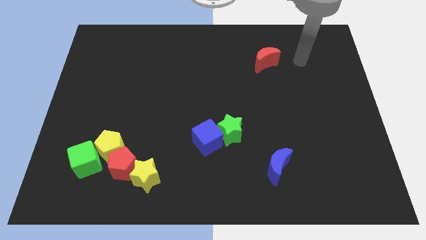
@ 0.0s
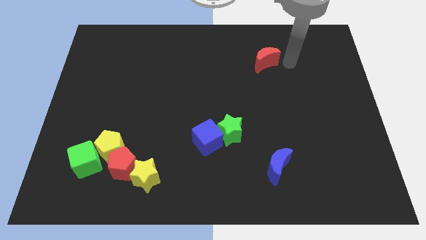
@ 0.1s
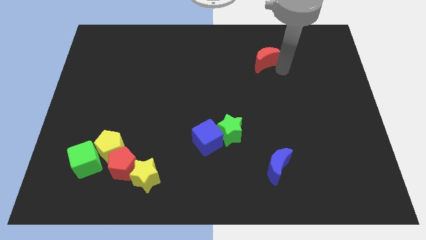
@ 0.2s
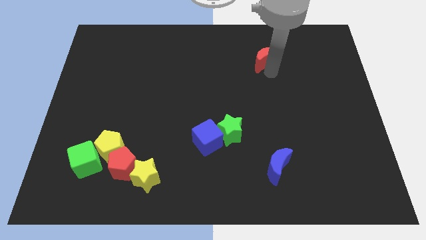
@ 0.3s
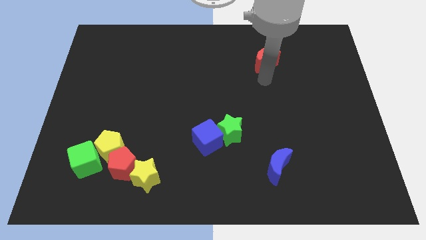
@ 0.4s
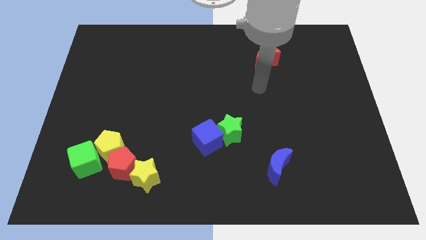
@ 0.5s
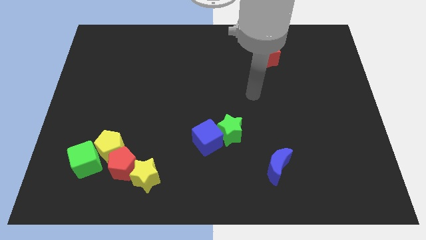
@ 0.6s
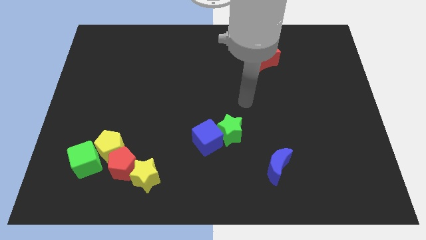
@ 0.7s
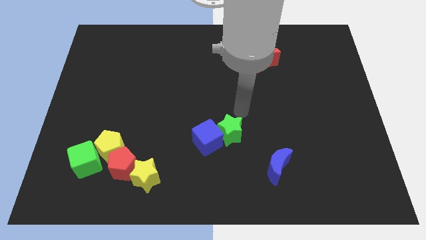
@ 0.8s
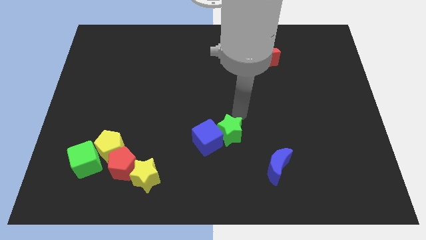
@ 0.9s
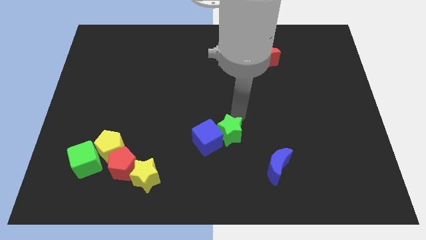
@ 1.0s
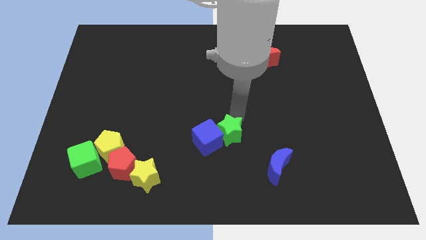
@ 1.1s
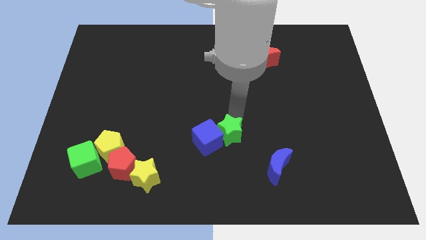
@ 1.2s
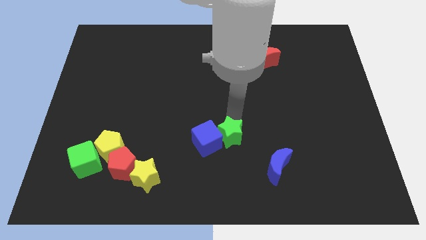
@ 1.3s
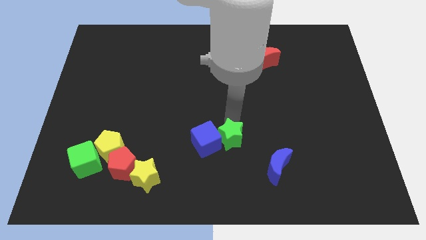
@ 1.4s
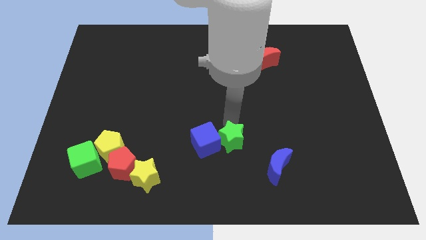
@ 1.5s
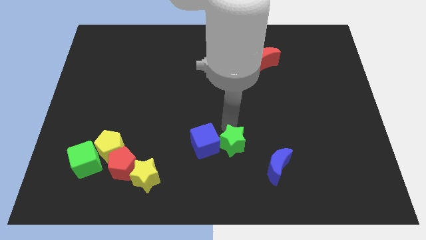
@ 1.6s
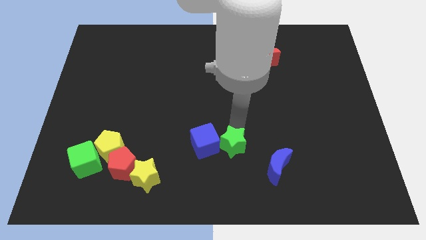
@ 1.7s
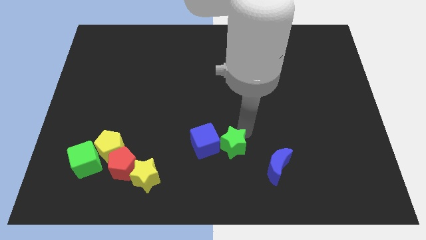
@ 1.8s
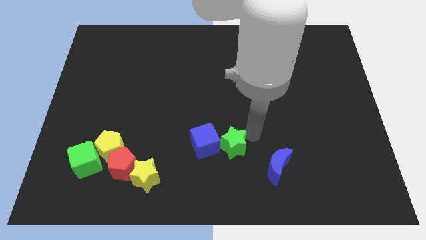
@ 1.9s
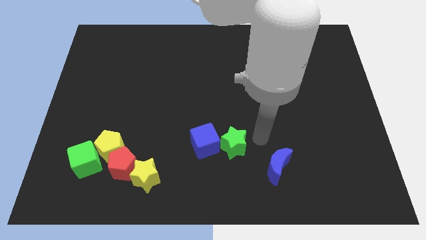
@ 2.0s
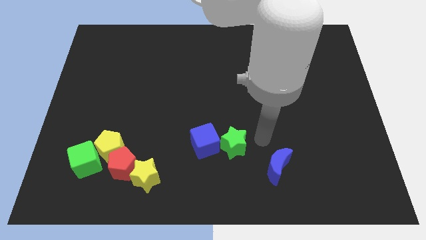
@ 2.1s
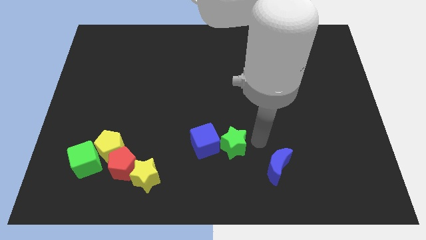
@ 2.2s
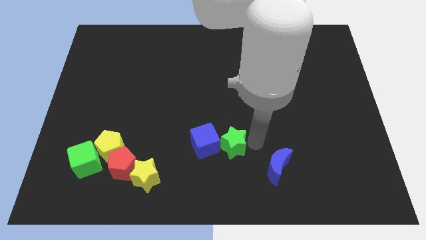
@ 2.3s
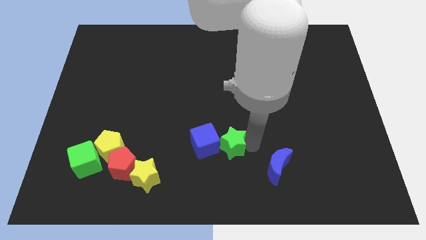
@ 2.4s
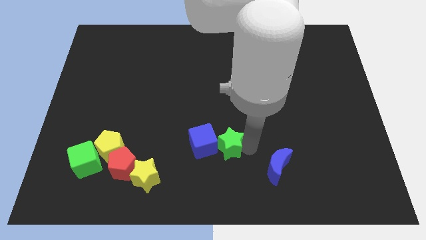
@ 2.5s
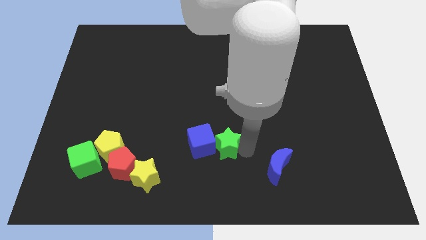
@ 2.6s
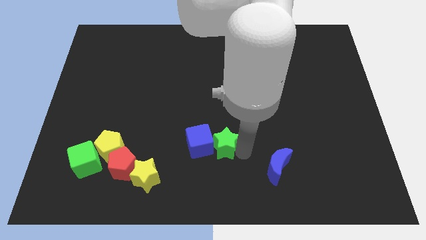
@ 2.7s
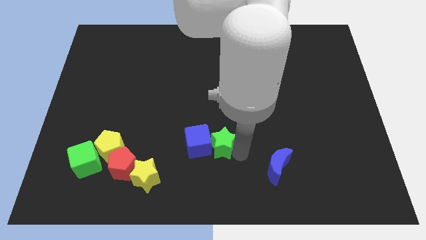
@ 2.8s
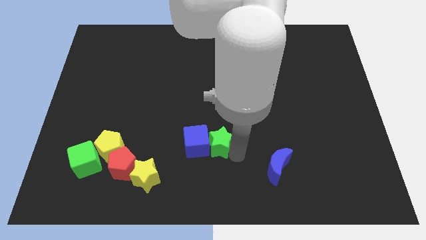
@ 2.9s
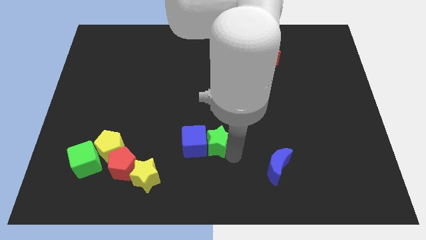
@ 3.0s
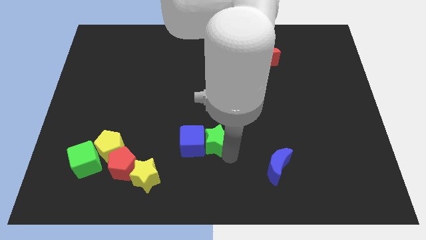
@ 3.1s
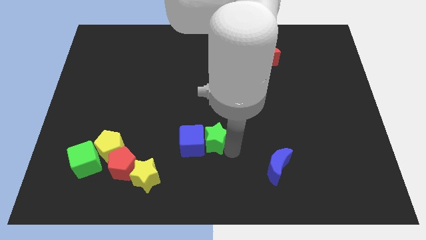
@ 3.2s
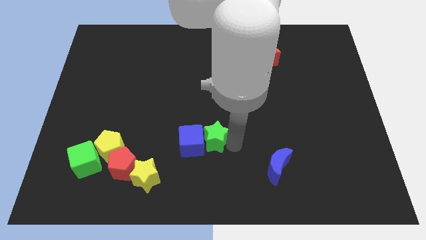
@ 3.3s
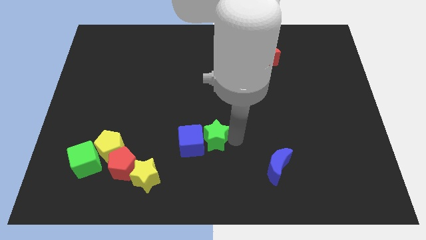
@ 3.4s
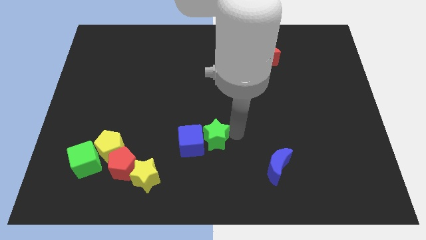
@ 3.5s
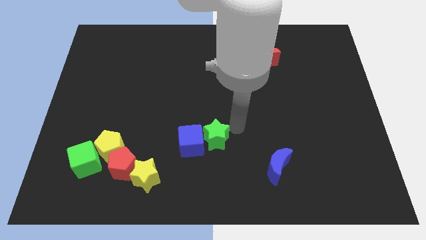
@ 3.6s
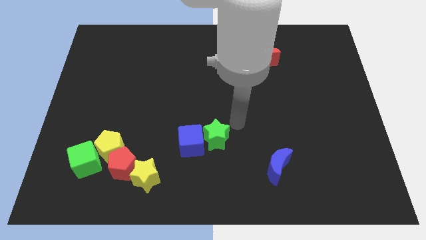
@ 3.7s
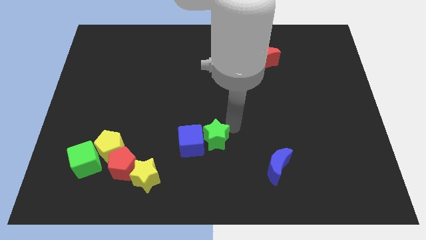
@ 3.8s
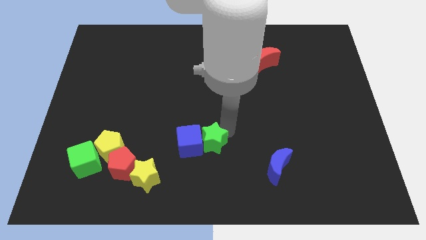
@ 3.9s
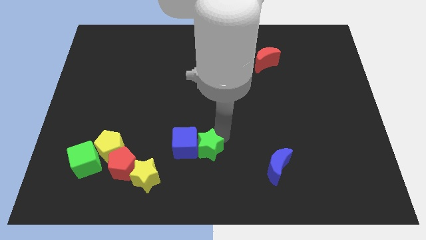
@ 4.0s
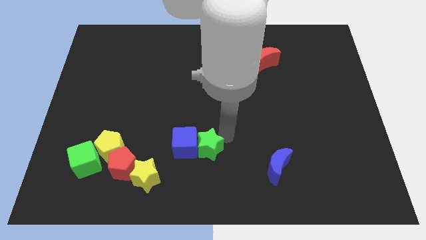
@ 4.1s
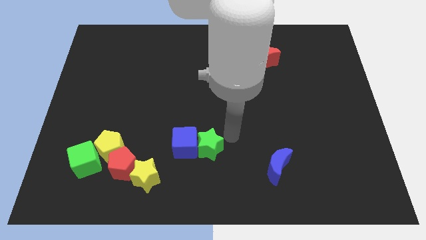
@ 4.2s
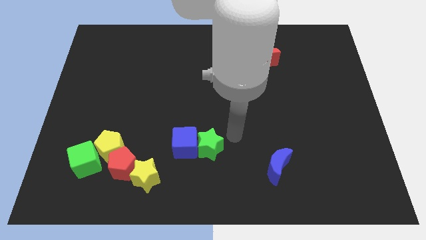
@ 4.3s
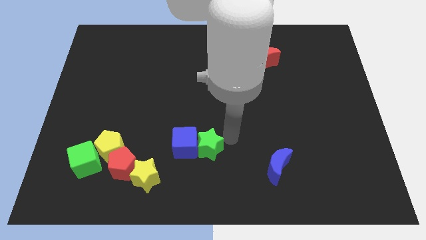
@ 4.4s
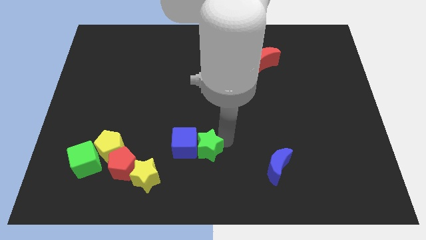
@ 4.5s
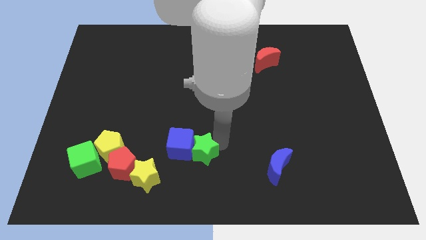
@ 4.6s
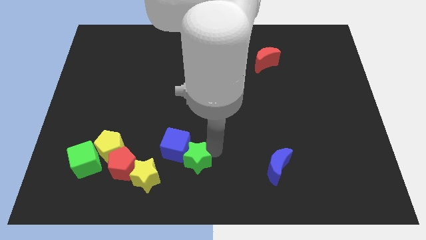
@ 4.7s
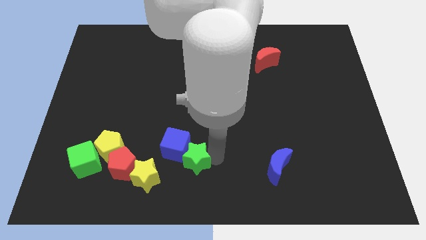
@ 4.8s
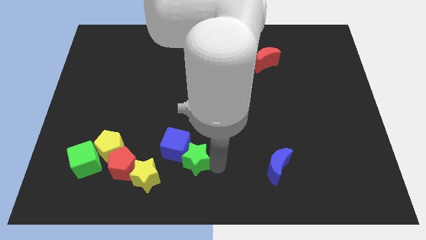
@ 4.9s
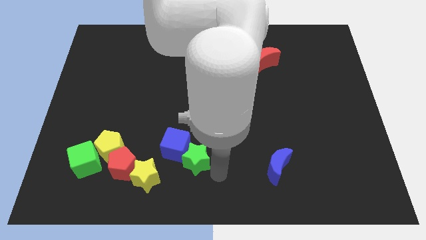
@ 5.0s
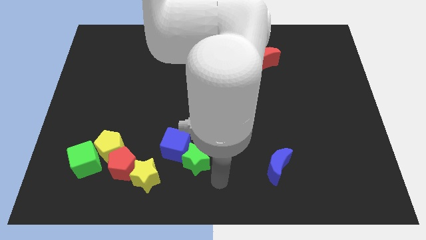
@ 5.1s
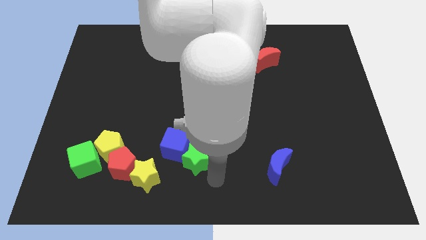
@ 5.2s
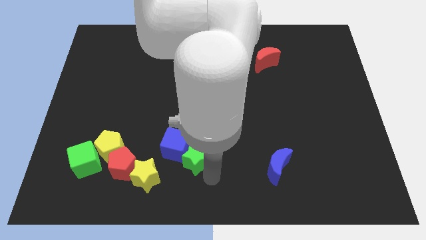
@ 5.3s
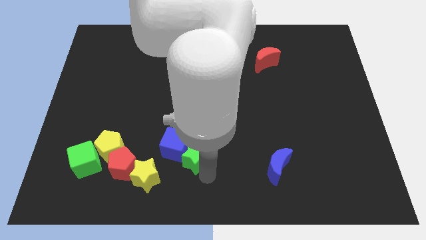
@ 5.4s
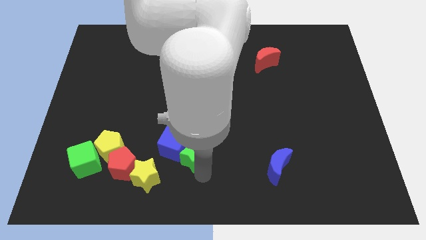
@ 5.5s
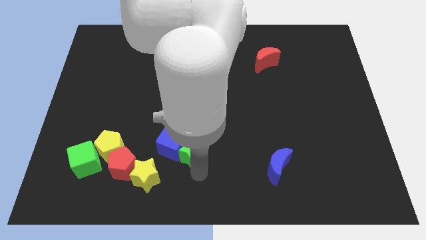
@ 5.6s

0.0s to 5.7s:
slide the green star to the left a little bit

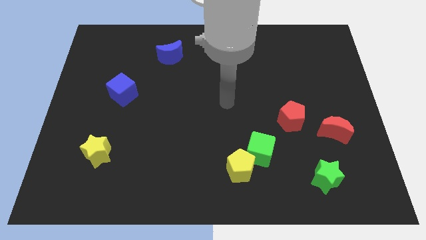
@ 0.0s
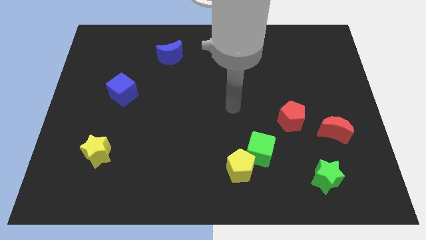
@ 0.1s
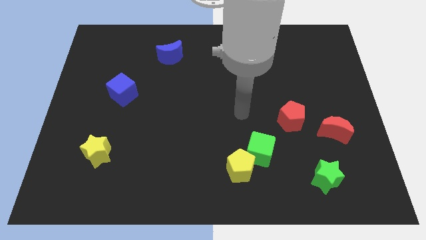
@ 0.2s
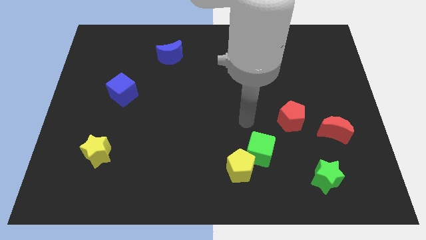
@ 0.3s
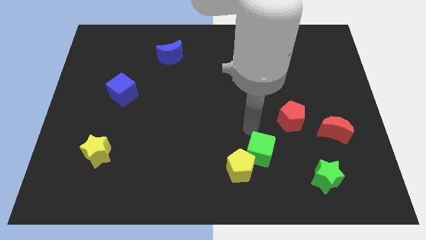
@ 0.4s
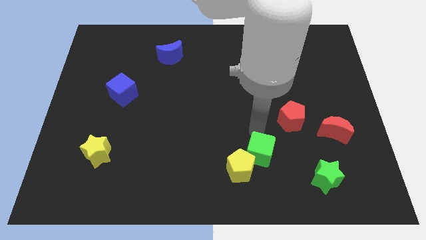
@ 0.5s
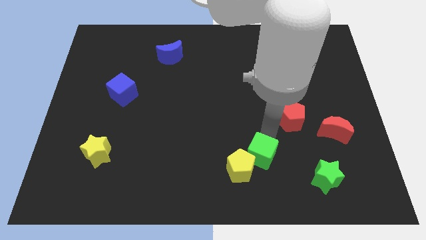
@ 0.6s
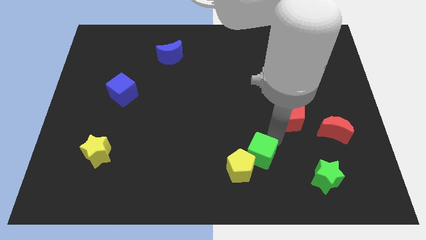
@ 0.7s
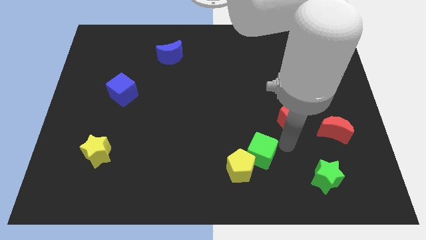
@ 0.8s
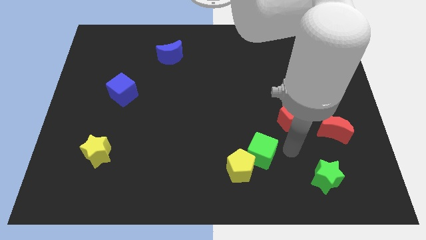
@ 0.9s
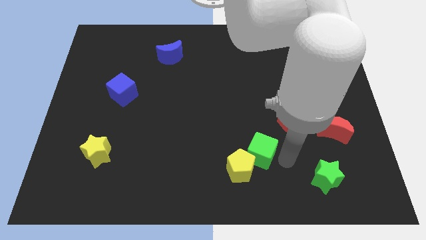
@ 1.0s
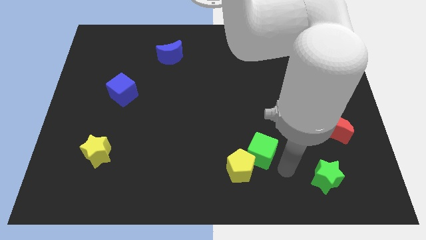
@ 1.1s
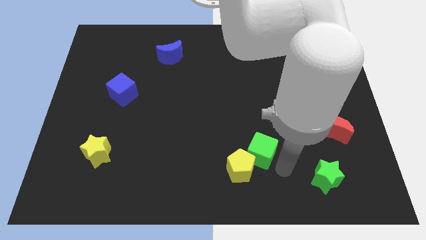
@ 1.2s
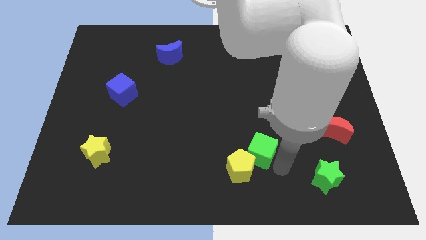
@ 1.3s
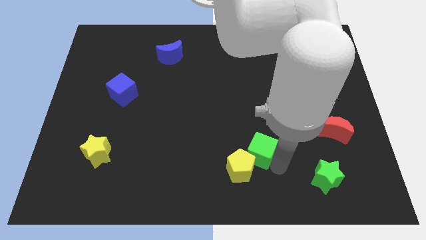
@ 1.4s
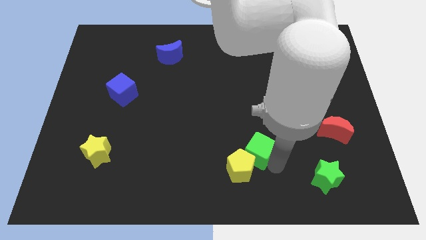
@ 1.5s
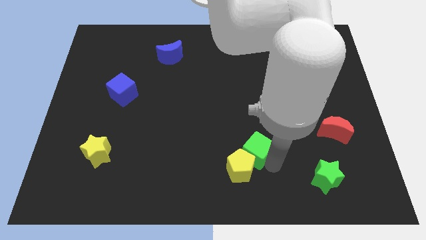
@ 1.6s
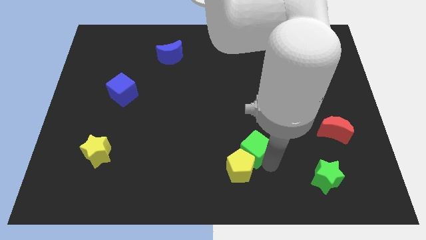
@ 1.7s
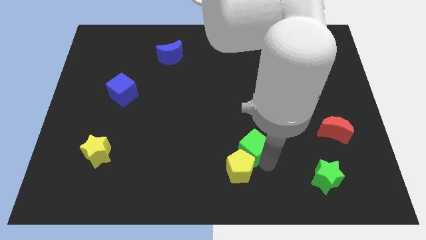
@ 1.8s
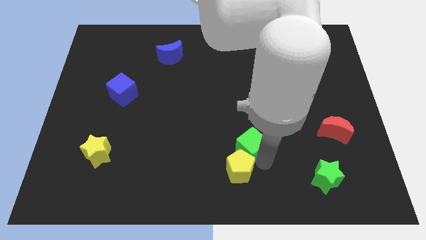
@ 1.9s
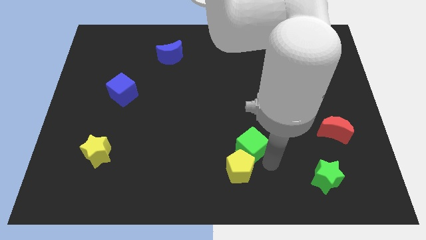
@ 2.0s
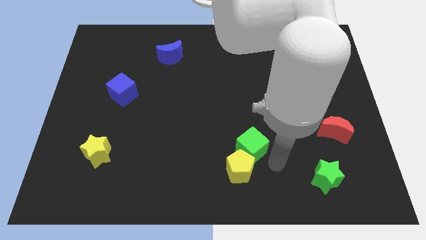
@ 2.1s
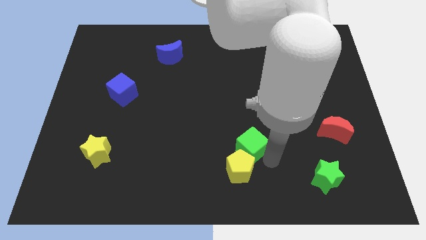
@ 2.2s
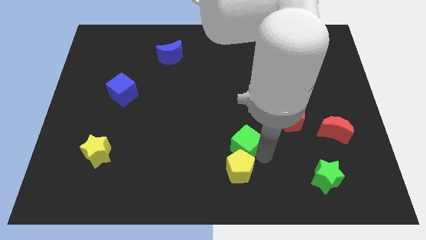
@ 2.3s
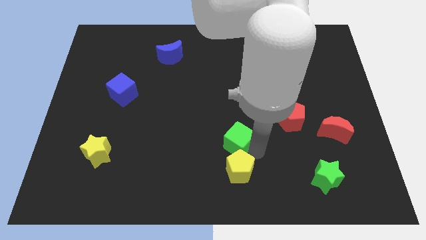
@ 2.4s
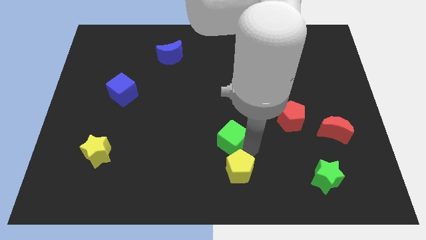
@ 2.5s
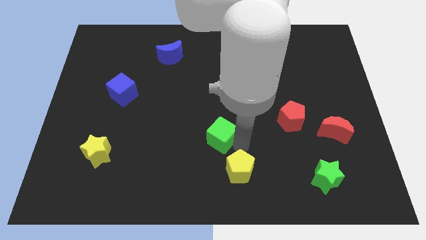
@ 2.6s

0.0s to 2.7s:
slightly push the green cube upwards and left diagonally
